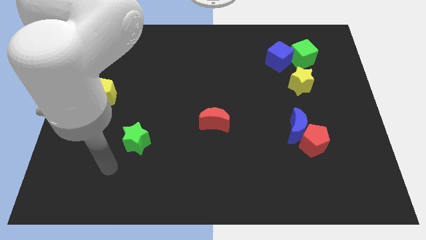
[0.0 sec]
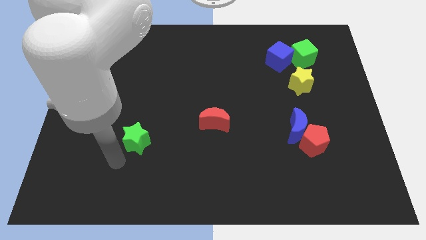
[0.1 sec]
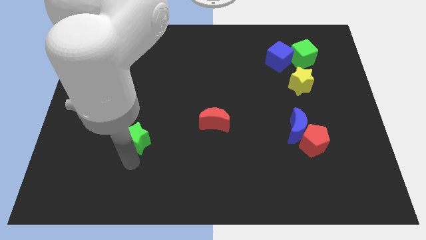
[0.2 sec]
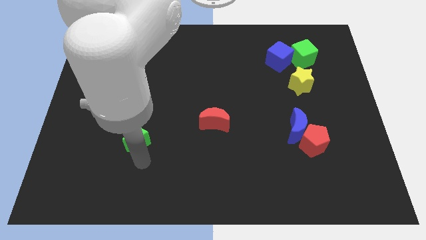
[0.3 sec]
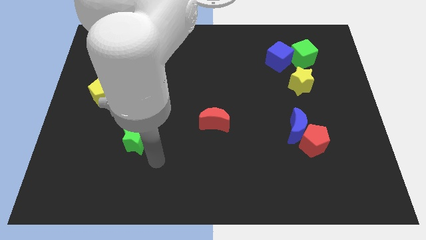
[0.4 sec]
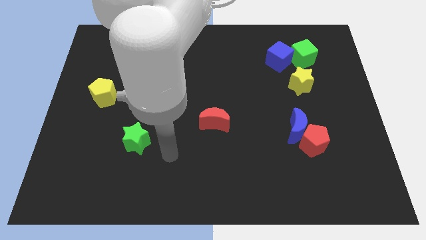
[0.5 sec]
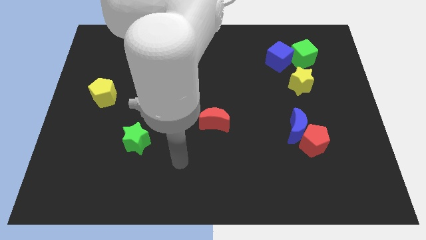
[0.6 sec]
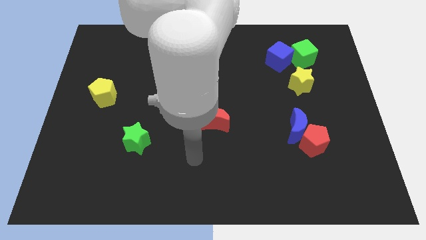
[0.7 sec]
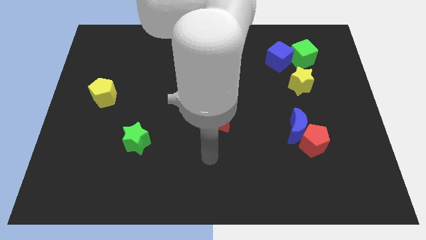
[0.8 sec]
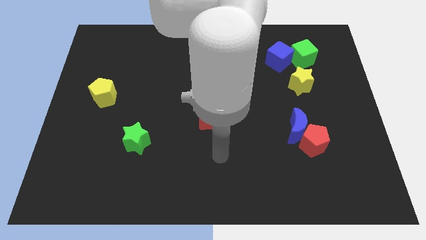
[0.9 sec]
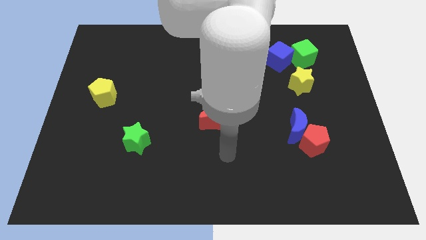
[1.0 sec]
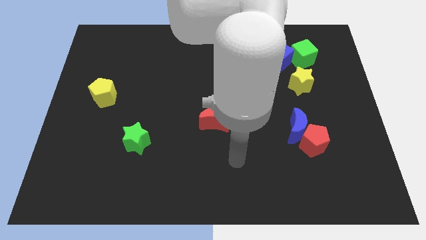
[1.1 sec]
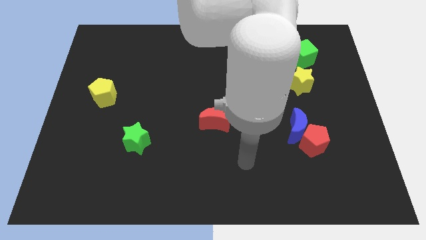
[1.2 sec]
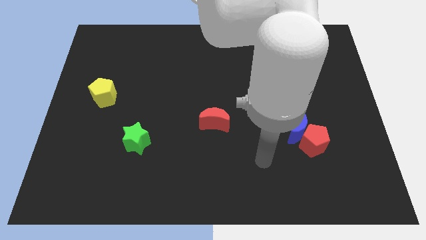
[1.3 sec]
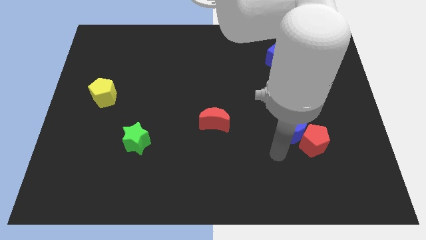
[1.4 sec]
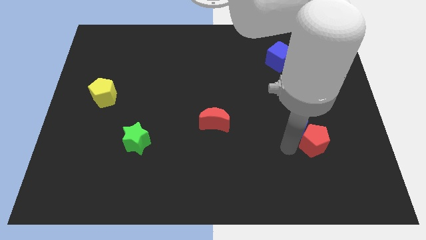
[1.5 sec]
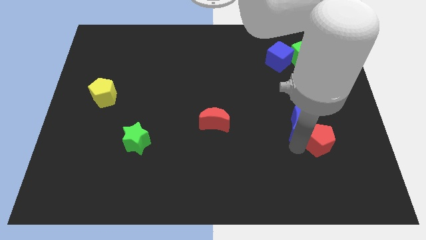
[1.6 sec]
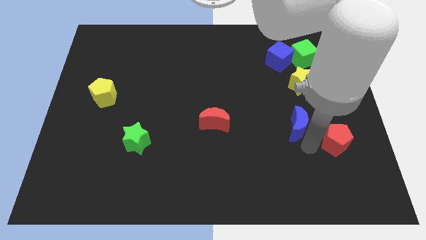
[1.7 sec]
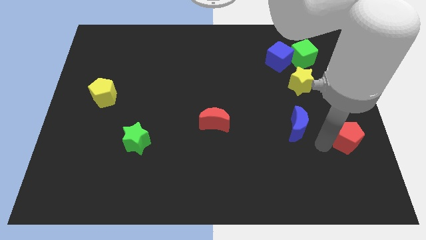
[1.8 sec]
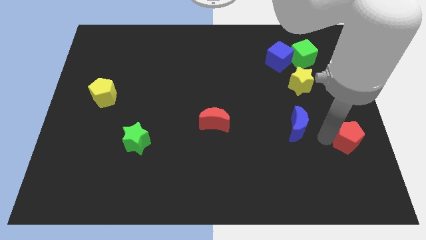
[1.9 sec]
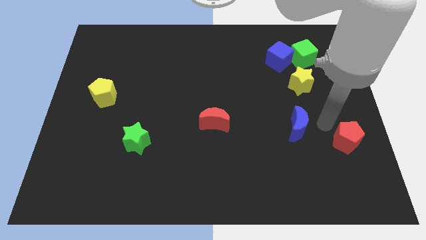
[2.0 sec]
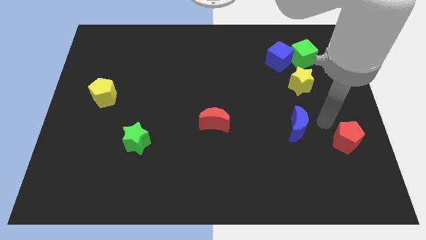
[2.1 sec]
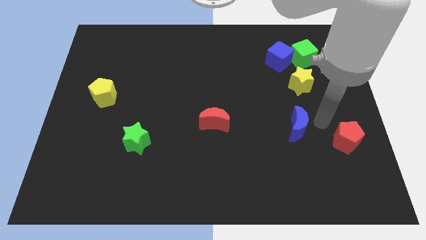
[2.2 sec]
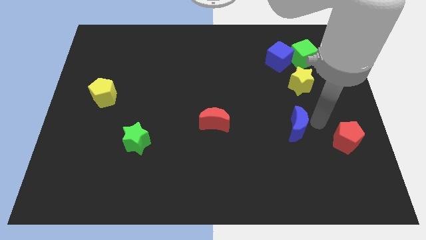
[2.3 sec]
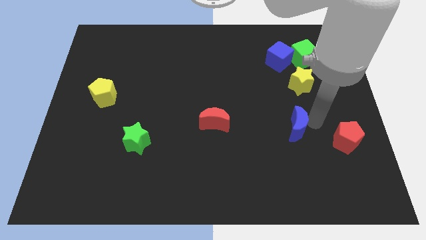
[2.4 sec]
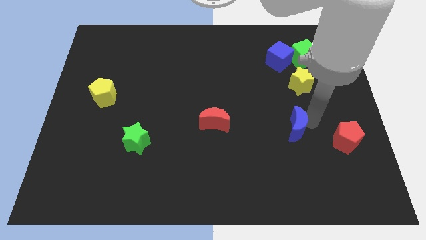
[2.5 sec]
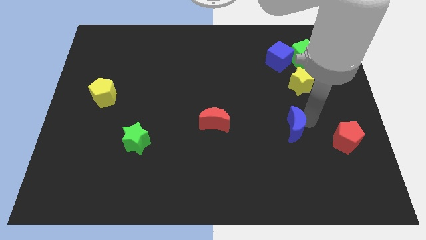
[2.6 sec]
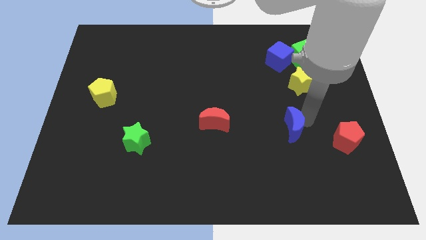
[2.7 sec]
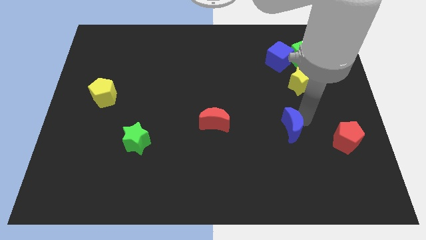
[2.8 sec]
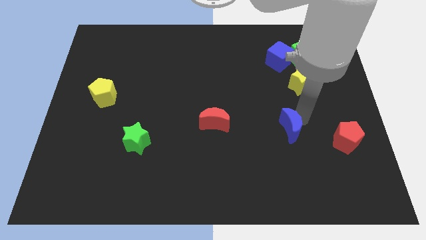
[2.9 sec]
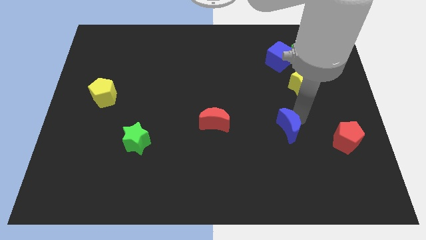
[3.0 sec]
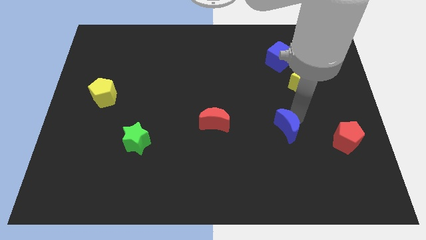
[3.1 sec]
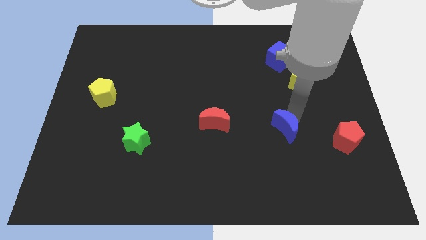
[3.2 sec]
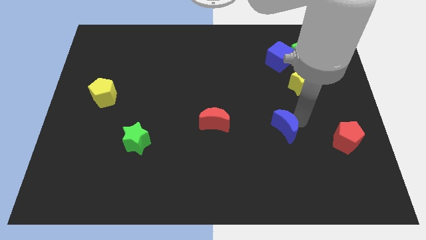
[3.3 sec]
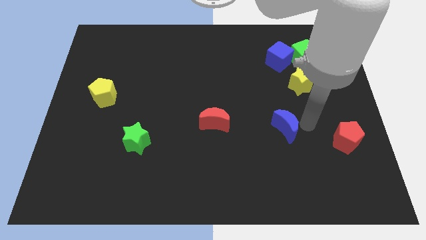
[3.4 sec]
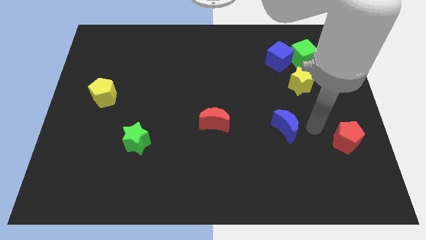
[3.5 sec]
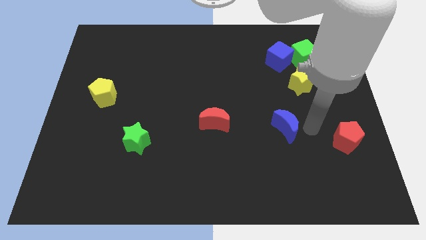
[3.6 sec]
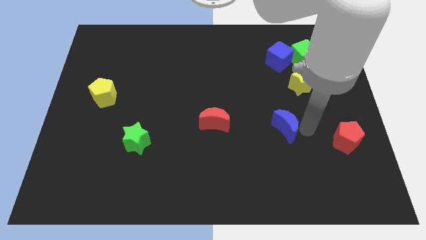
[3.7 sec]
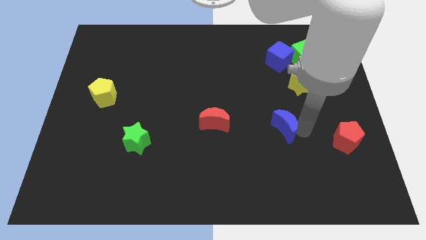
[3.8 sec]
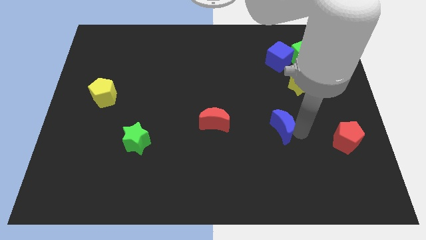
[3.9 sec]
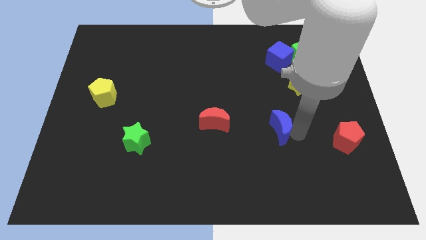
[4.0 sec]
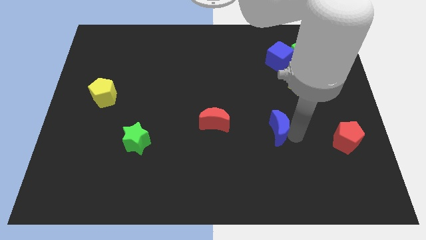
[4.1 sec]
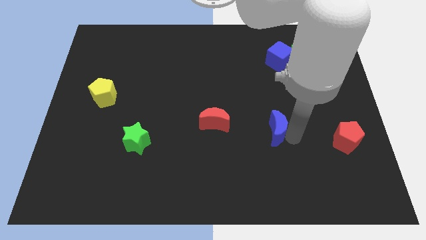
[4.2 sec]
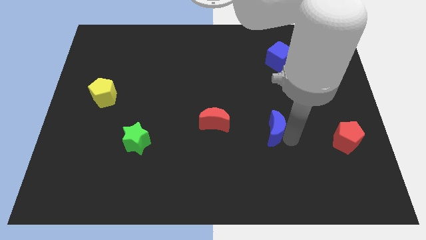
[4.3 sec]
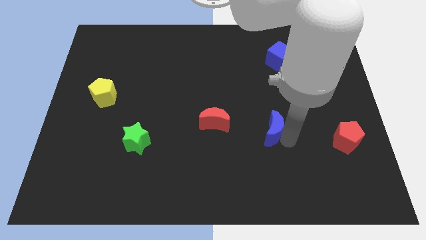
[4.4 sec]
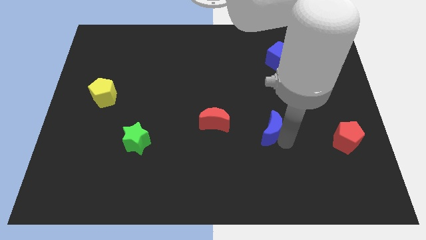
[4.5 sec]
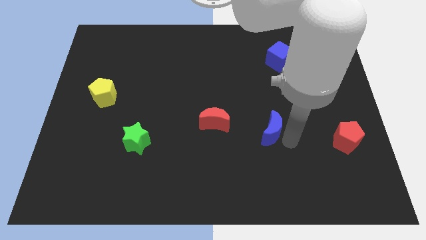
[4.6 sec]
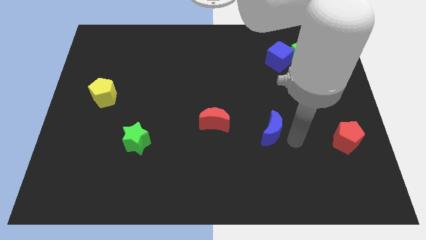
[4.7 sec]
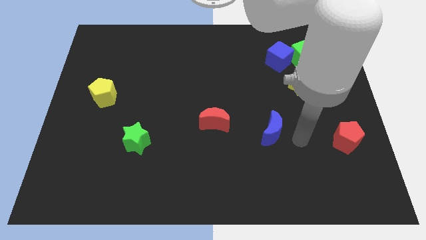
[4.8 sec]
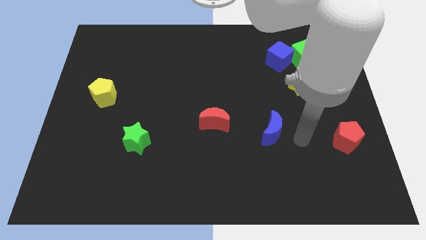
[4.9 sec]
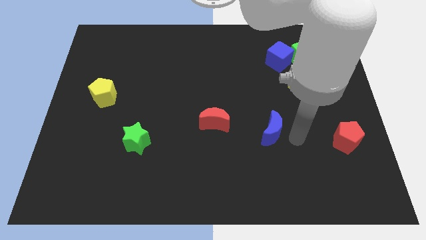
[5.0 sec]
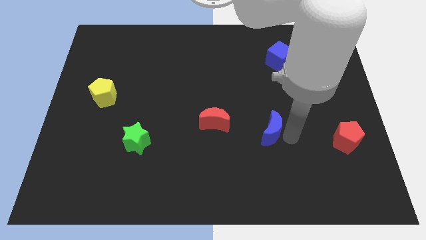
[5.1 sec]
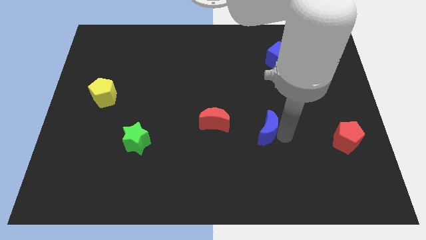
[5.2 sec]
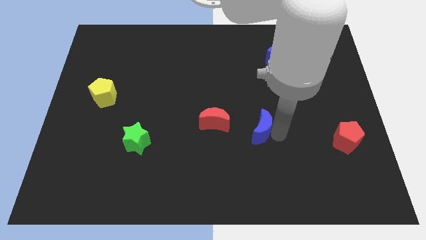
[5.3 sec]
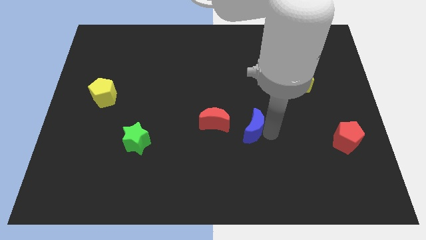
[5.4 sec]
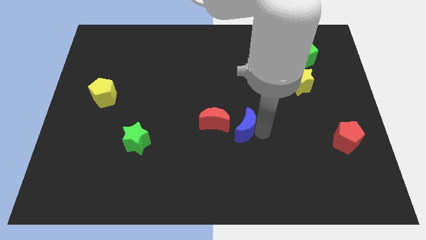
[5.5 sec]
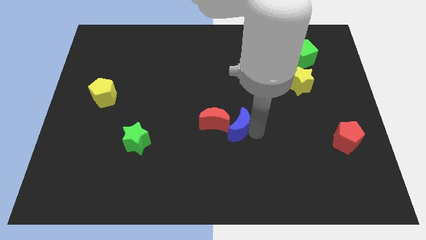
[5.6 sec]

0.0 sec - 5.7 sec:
put the blue moon to the red moon

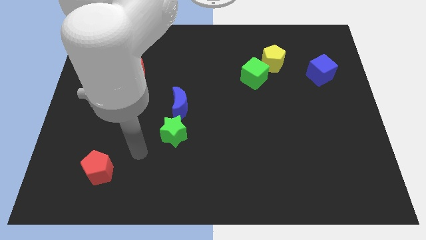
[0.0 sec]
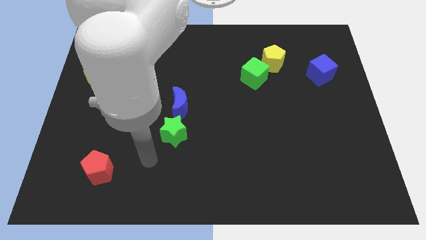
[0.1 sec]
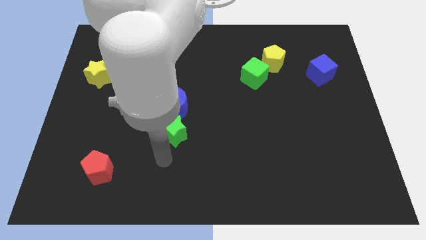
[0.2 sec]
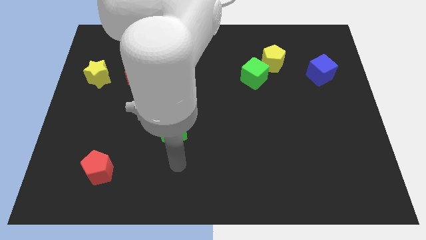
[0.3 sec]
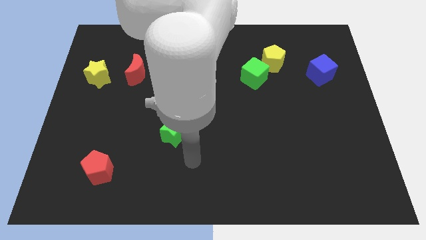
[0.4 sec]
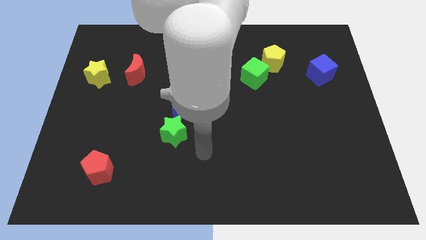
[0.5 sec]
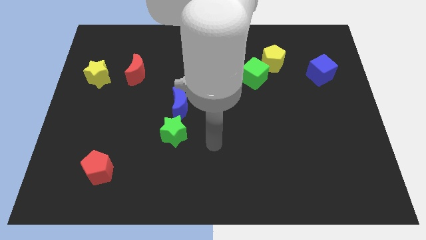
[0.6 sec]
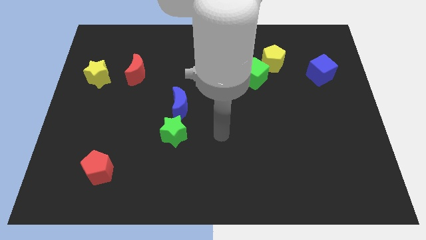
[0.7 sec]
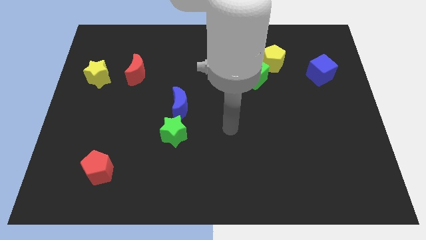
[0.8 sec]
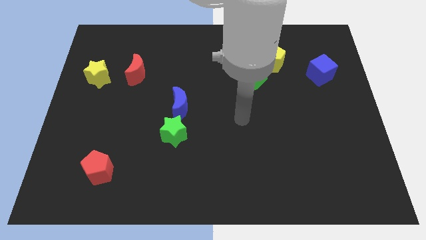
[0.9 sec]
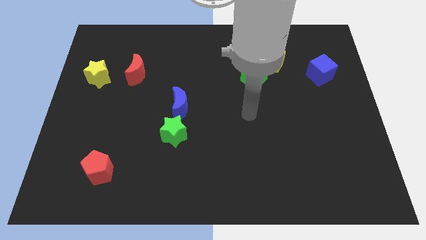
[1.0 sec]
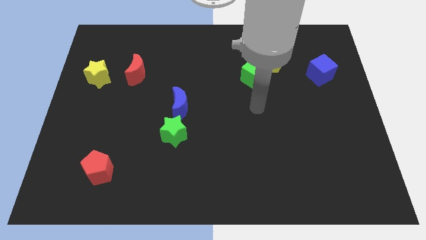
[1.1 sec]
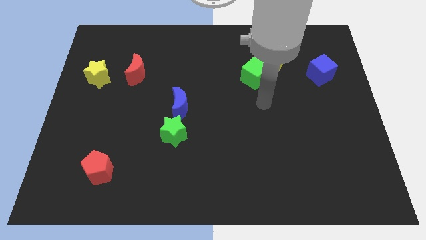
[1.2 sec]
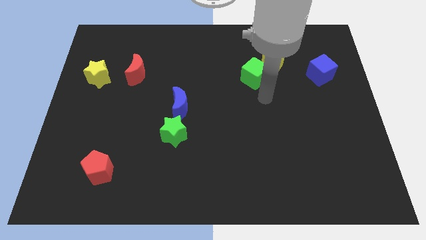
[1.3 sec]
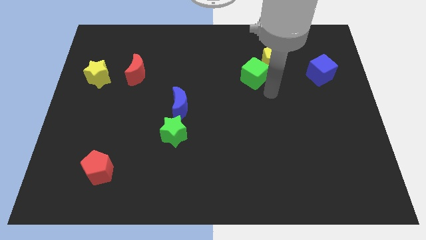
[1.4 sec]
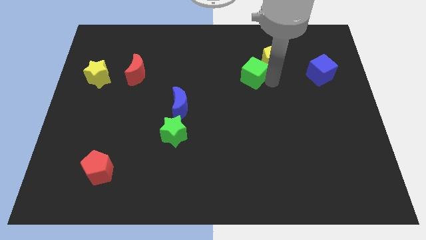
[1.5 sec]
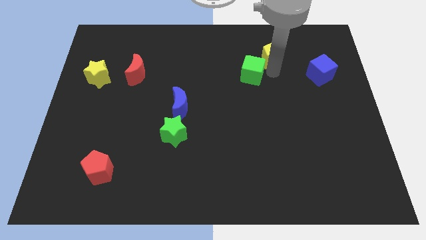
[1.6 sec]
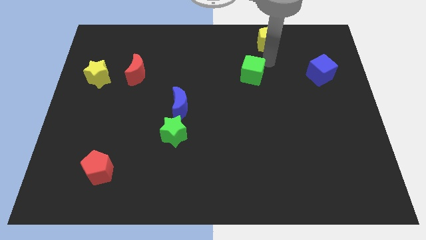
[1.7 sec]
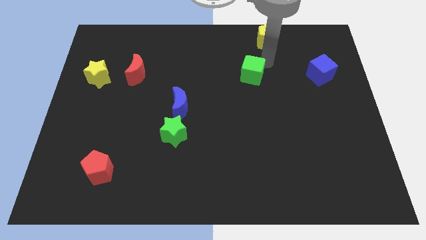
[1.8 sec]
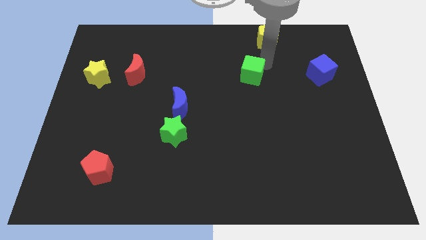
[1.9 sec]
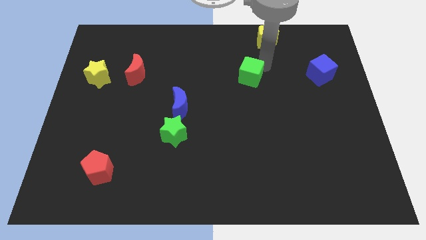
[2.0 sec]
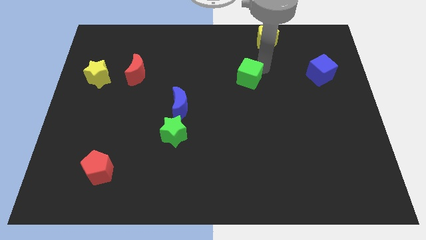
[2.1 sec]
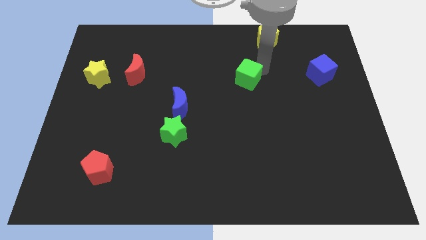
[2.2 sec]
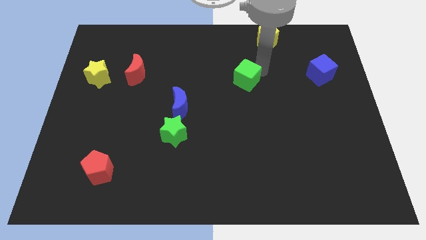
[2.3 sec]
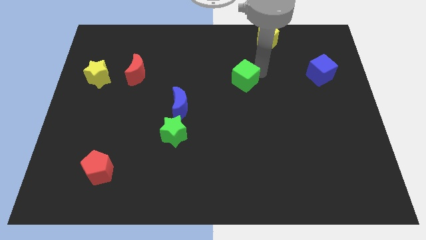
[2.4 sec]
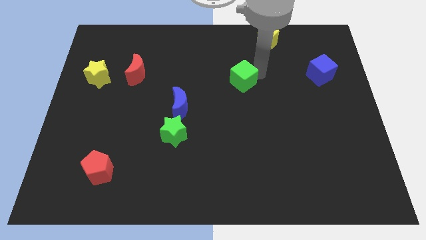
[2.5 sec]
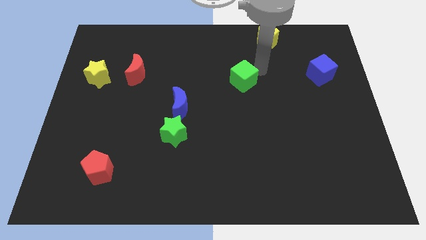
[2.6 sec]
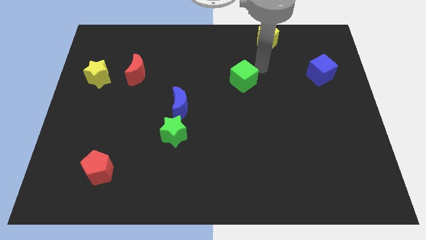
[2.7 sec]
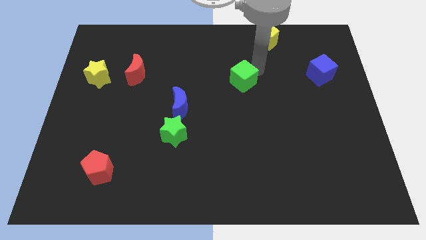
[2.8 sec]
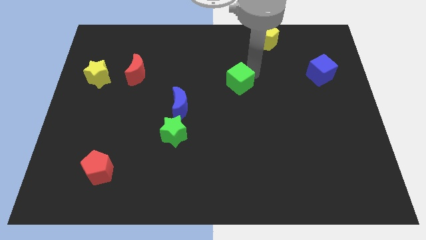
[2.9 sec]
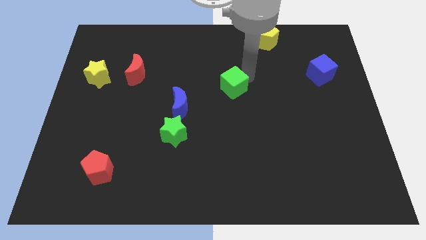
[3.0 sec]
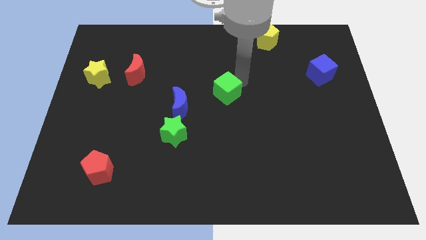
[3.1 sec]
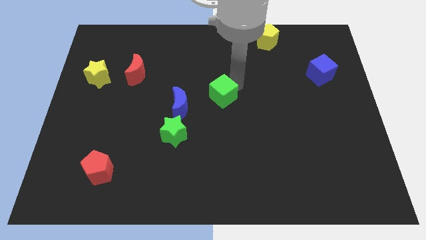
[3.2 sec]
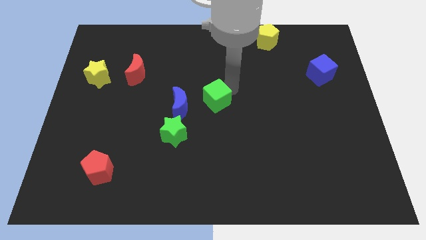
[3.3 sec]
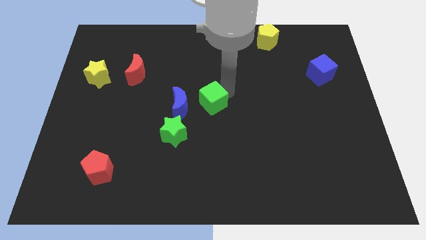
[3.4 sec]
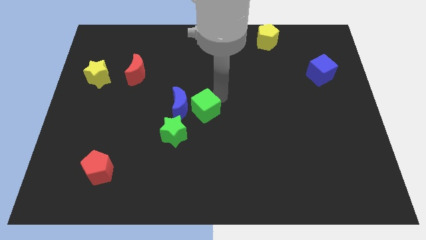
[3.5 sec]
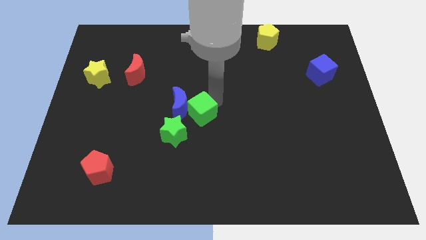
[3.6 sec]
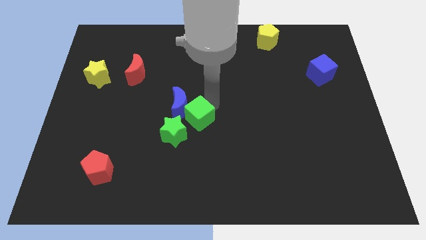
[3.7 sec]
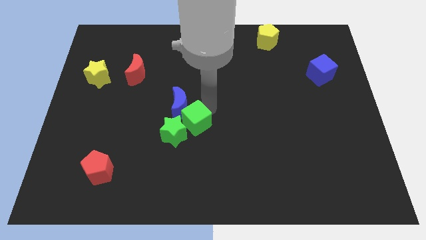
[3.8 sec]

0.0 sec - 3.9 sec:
put the green cube next to the green star
